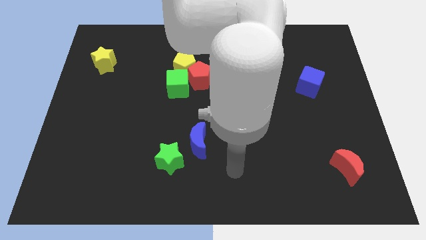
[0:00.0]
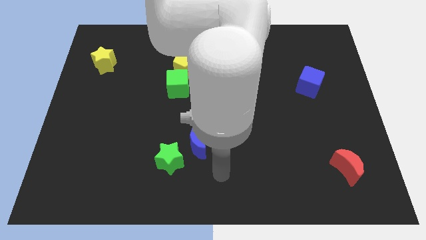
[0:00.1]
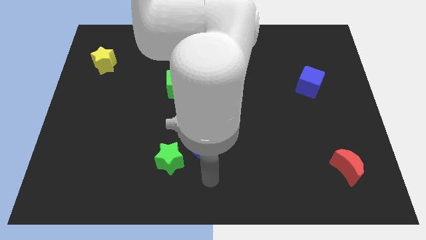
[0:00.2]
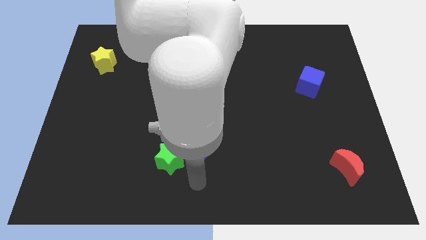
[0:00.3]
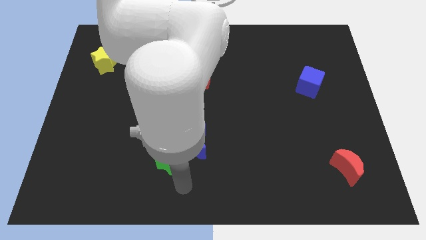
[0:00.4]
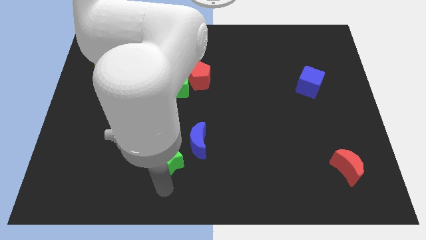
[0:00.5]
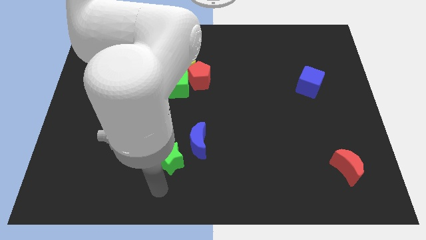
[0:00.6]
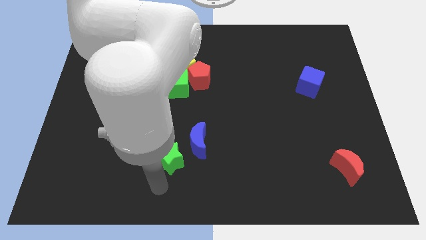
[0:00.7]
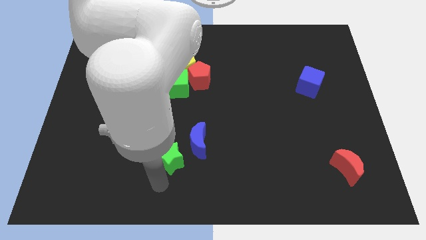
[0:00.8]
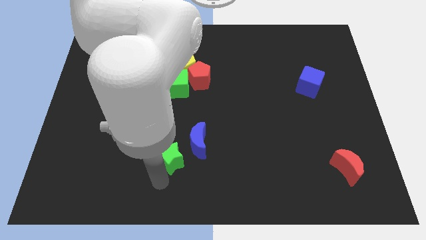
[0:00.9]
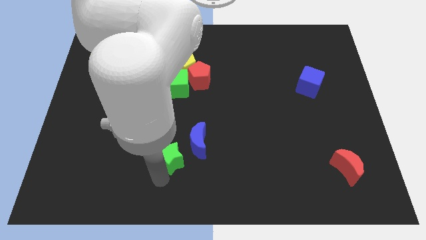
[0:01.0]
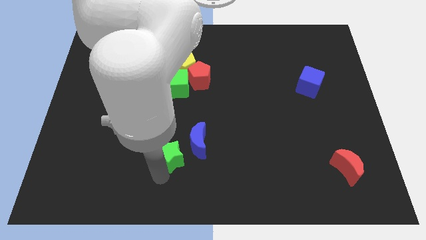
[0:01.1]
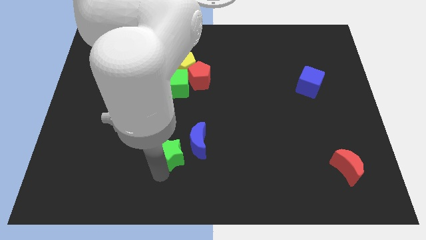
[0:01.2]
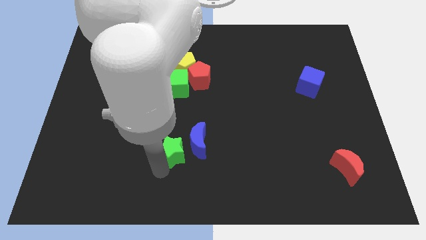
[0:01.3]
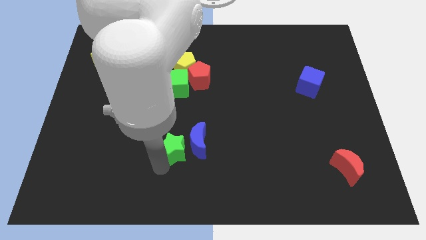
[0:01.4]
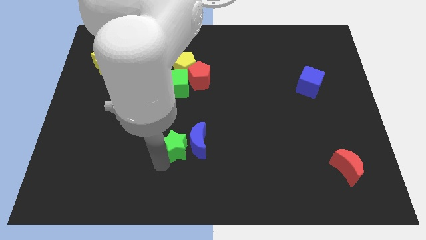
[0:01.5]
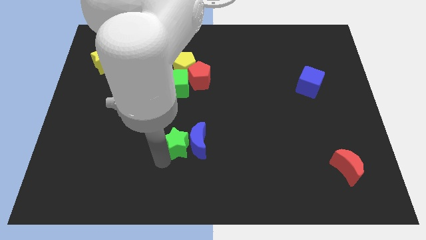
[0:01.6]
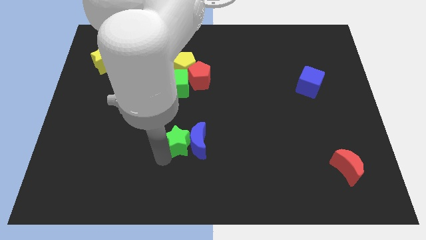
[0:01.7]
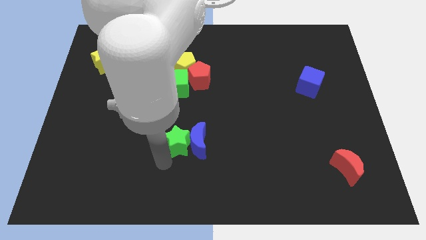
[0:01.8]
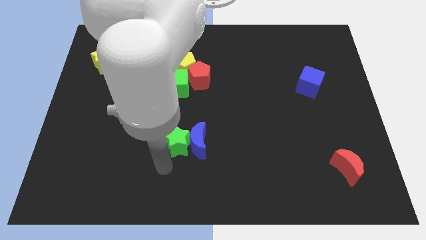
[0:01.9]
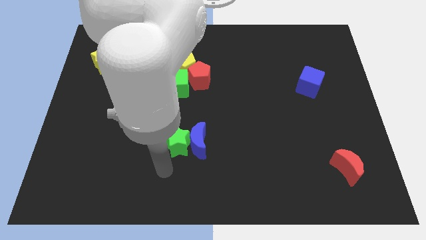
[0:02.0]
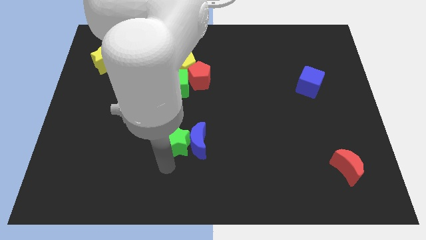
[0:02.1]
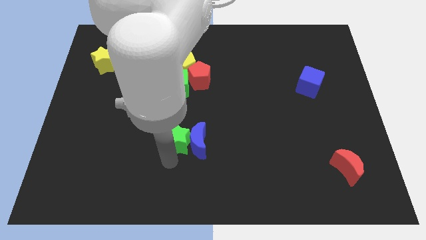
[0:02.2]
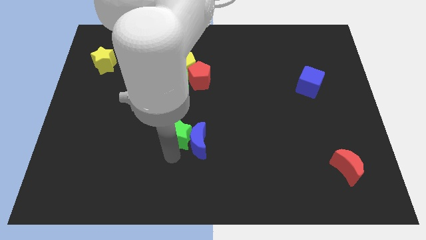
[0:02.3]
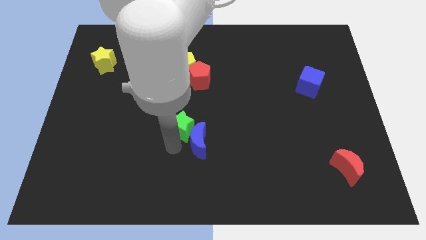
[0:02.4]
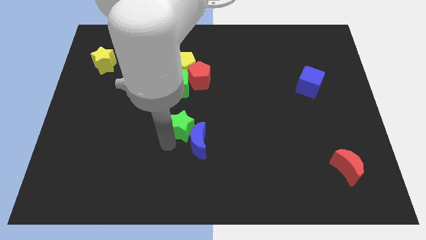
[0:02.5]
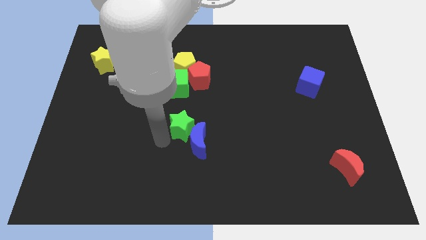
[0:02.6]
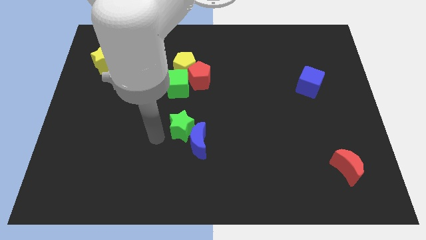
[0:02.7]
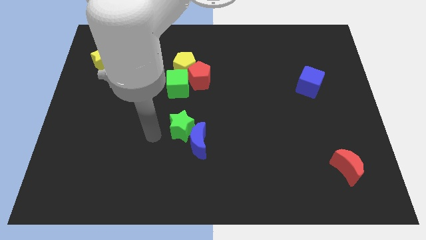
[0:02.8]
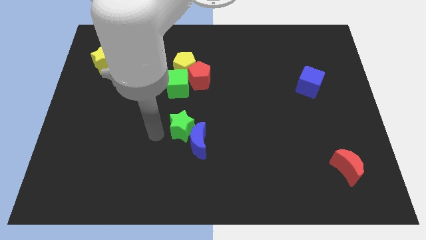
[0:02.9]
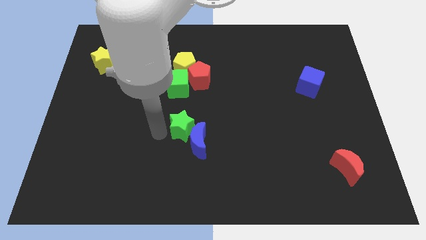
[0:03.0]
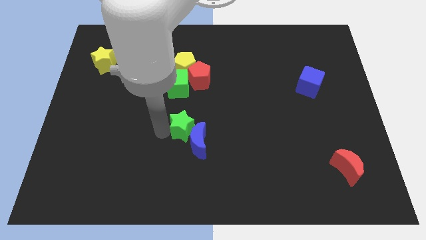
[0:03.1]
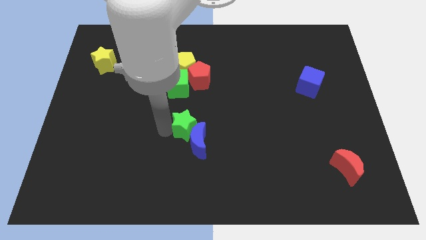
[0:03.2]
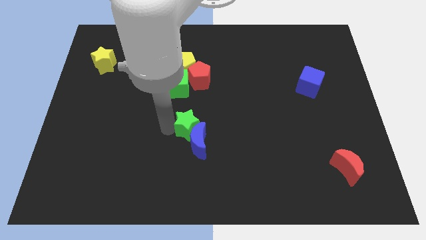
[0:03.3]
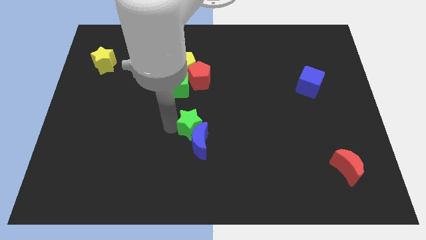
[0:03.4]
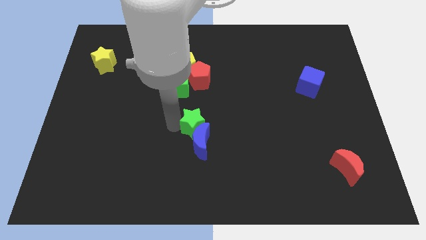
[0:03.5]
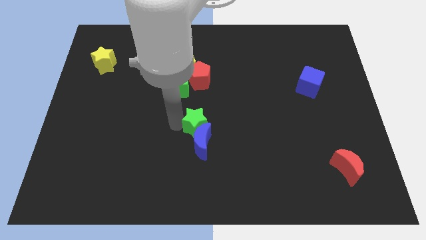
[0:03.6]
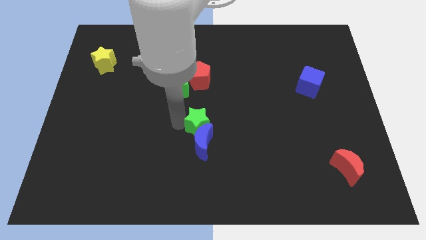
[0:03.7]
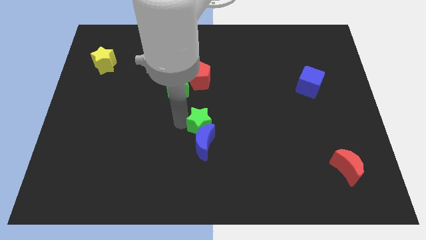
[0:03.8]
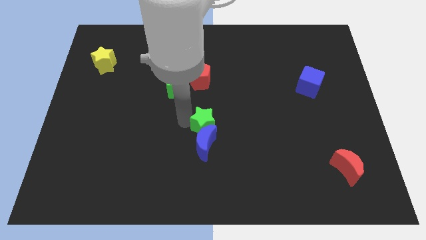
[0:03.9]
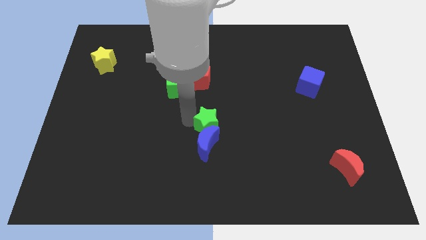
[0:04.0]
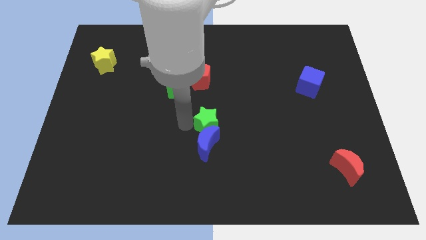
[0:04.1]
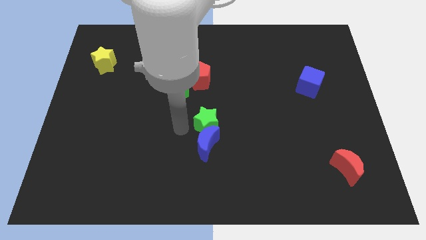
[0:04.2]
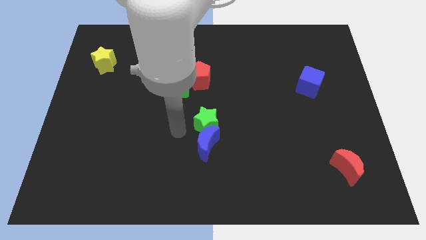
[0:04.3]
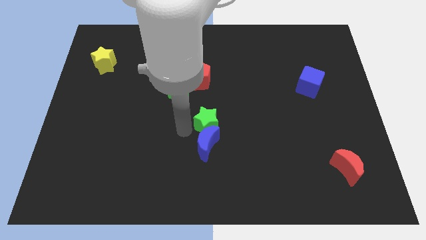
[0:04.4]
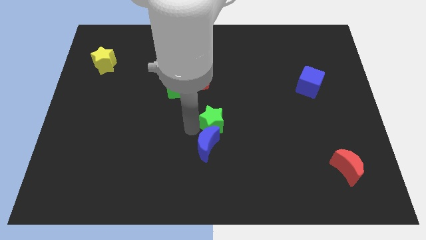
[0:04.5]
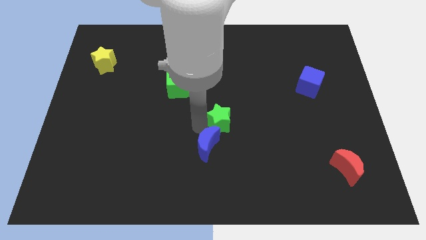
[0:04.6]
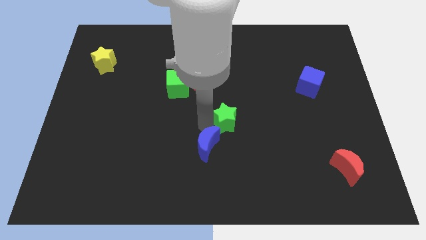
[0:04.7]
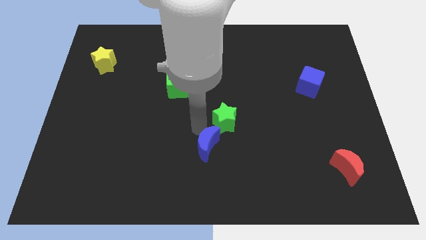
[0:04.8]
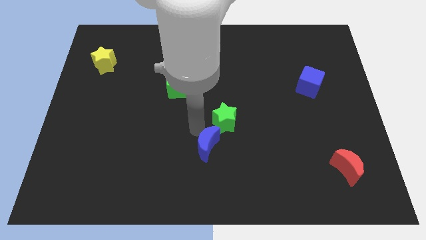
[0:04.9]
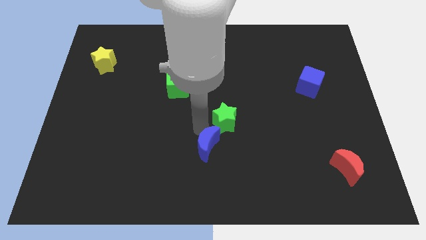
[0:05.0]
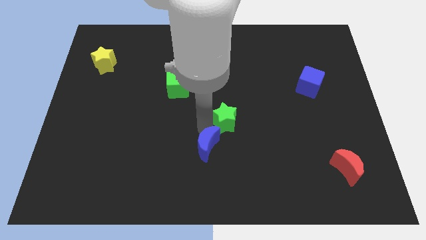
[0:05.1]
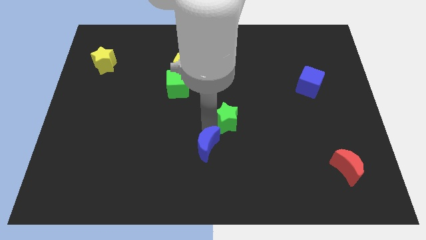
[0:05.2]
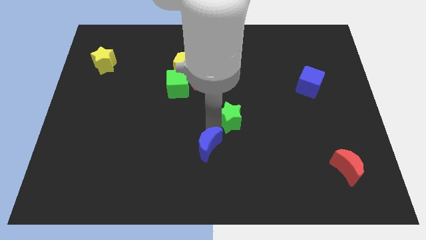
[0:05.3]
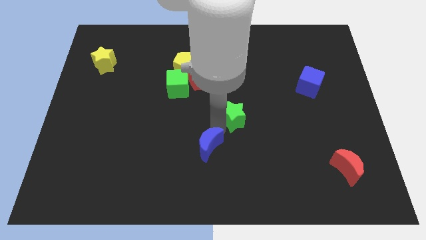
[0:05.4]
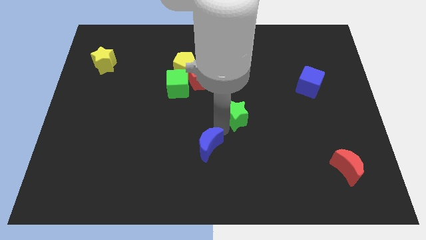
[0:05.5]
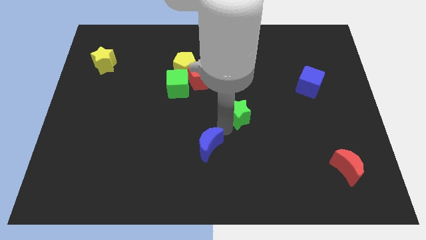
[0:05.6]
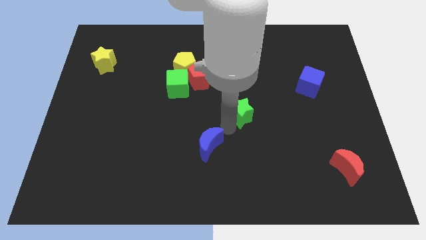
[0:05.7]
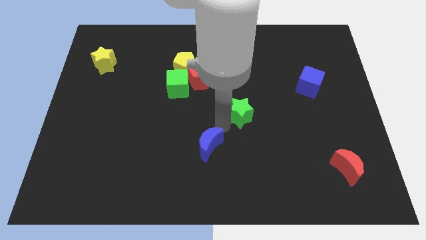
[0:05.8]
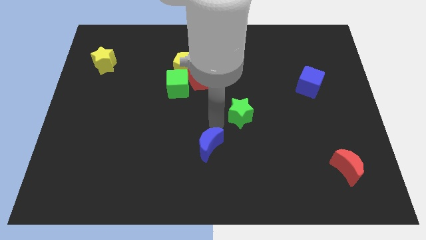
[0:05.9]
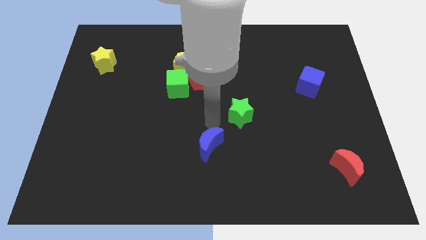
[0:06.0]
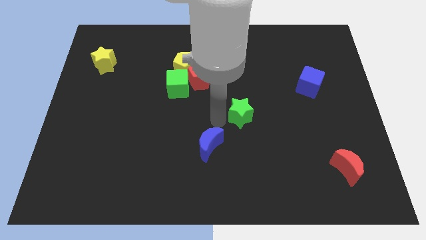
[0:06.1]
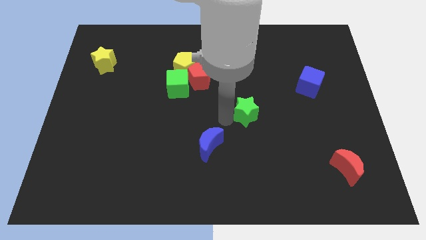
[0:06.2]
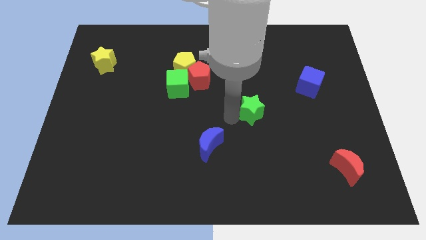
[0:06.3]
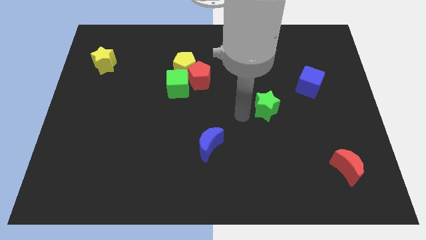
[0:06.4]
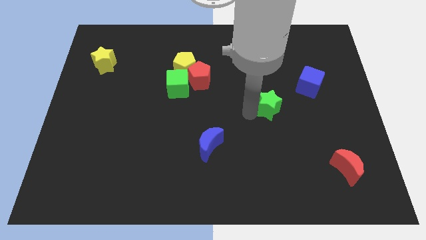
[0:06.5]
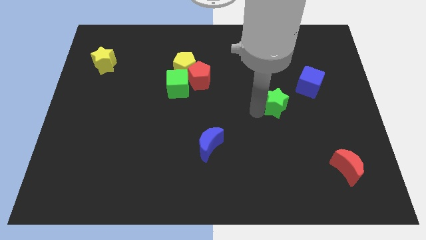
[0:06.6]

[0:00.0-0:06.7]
push the green star to the bottom left side of the blue cube
